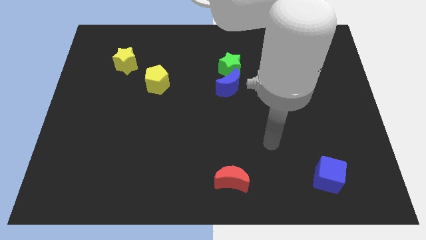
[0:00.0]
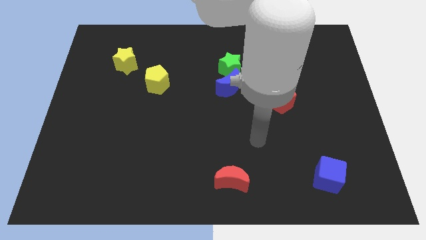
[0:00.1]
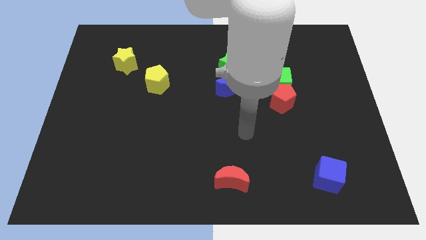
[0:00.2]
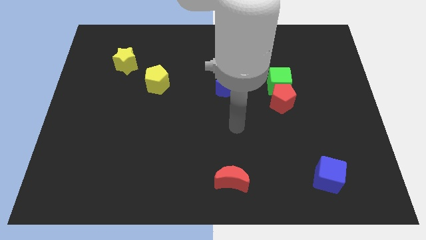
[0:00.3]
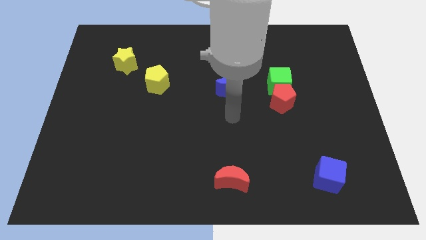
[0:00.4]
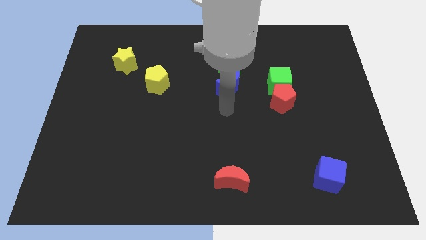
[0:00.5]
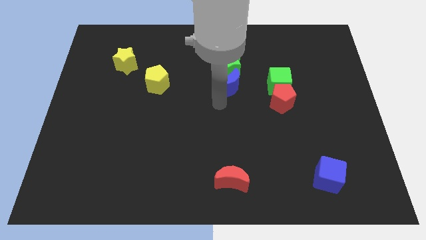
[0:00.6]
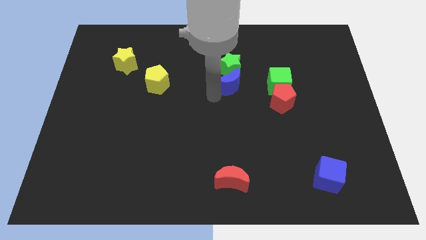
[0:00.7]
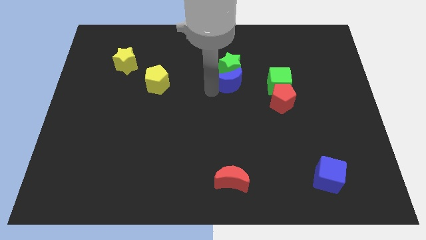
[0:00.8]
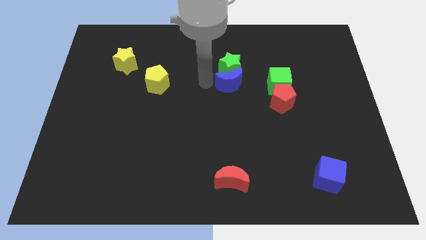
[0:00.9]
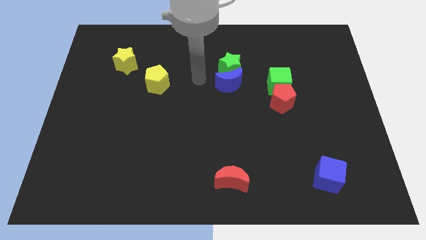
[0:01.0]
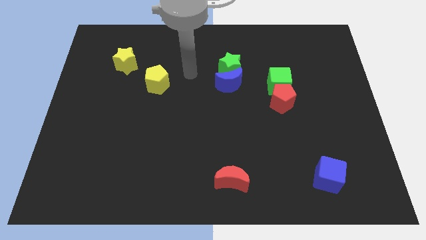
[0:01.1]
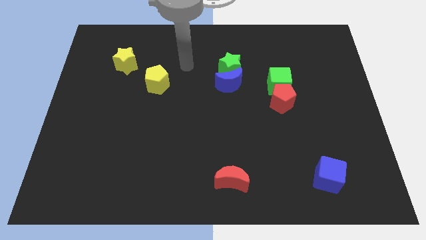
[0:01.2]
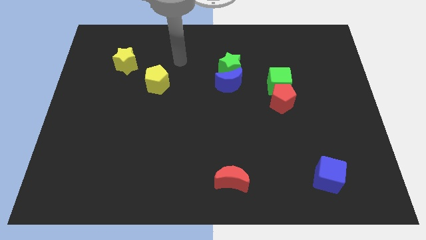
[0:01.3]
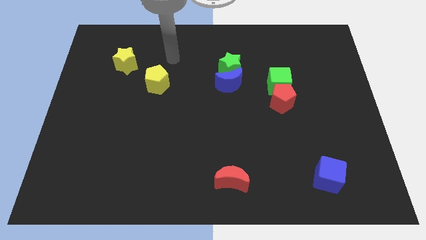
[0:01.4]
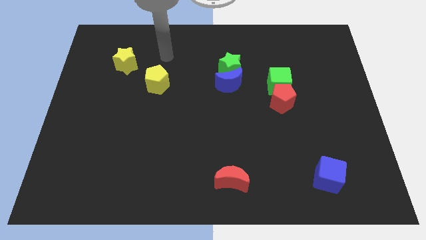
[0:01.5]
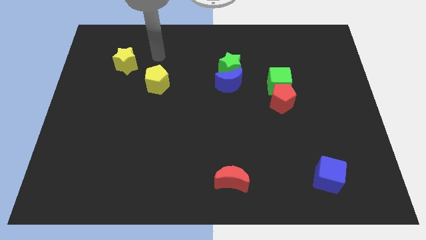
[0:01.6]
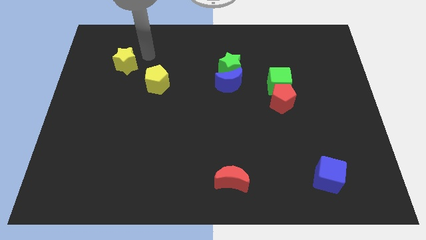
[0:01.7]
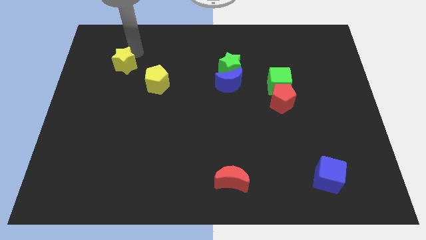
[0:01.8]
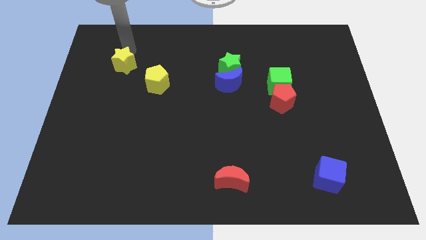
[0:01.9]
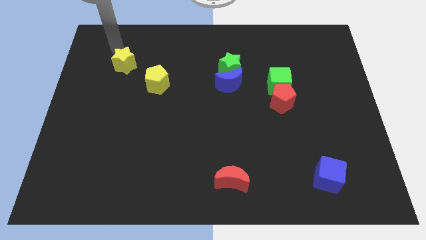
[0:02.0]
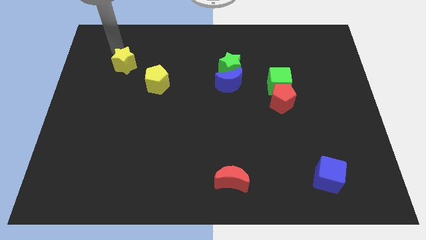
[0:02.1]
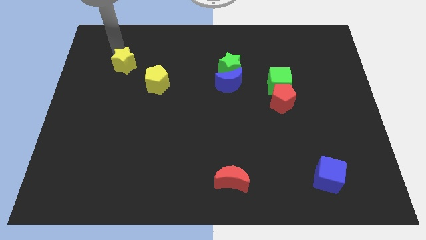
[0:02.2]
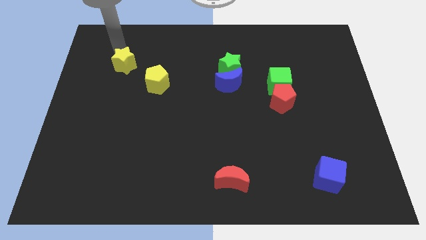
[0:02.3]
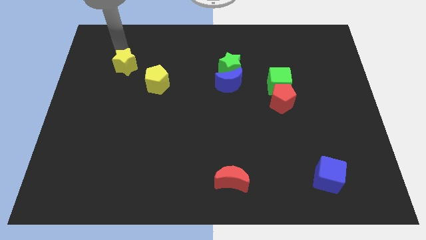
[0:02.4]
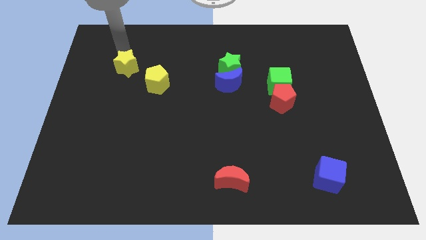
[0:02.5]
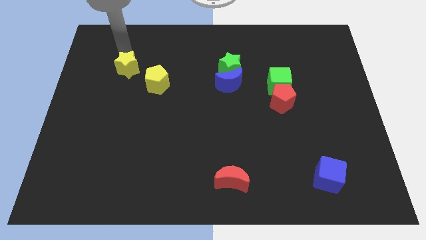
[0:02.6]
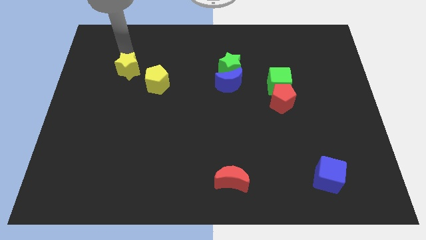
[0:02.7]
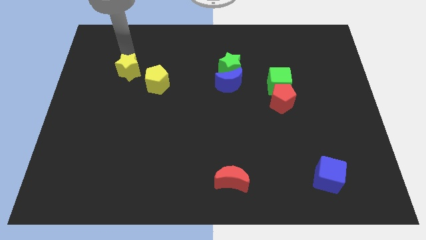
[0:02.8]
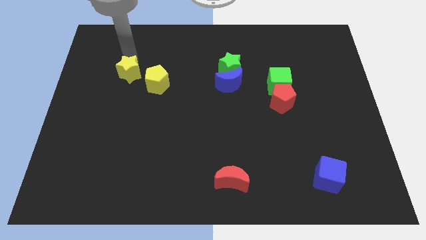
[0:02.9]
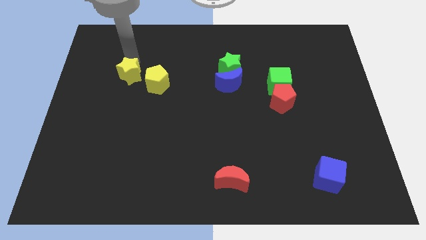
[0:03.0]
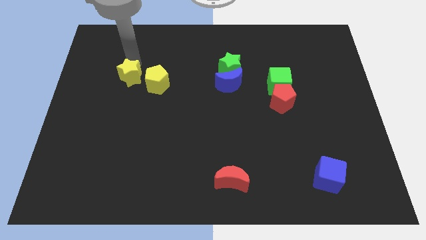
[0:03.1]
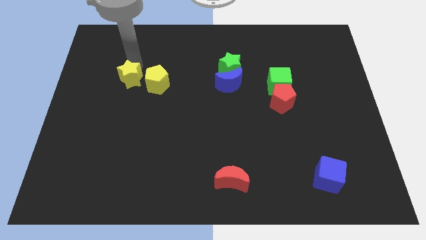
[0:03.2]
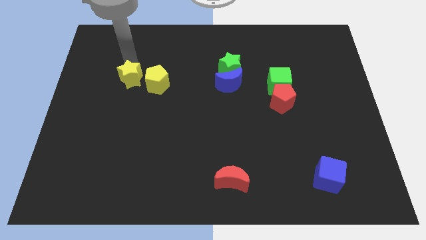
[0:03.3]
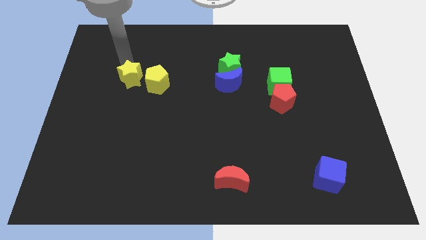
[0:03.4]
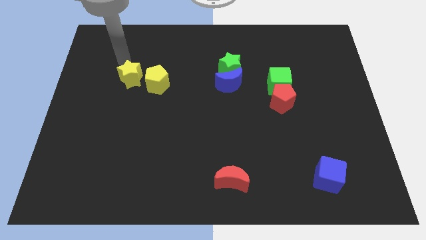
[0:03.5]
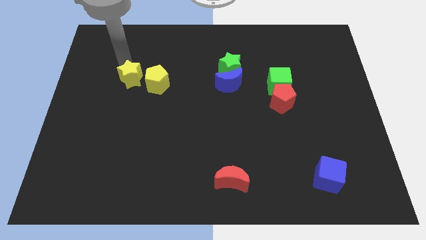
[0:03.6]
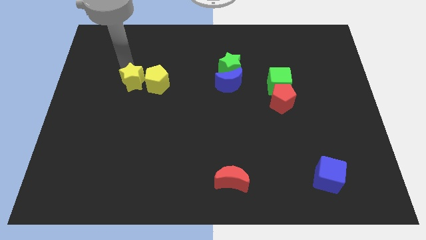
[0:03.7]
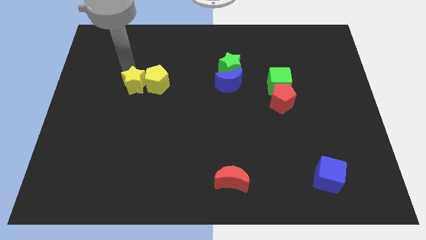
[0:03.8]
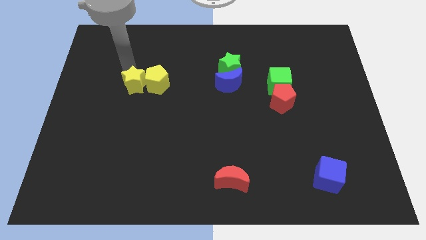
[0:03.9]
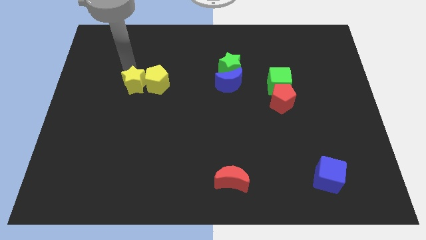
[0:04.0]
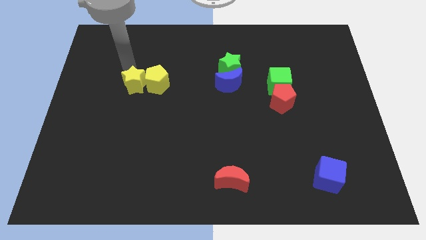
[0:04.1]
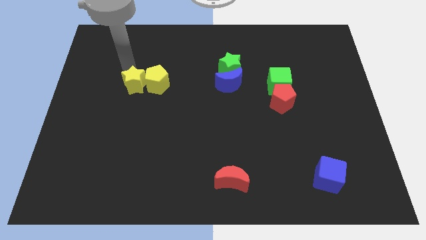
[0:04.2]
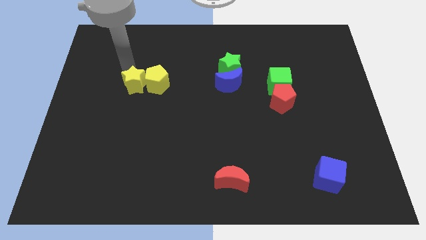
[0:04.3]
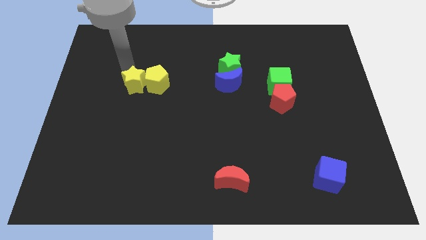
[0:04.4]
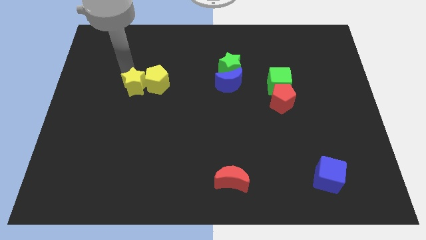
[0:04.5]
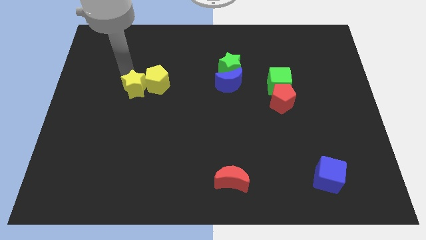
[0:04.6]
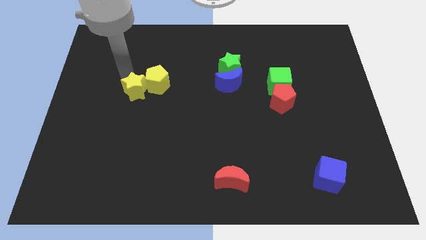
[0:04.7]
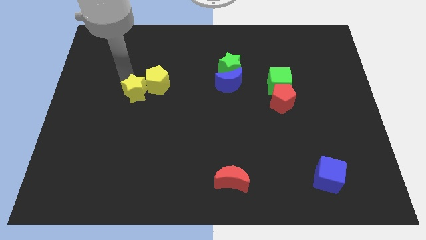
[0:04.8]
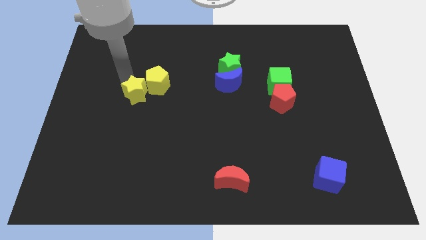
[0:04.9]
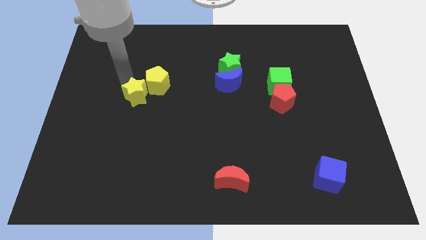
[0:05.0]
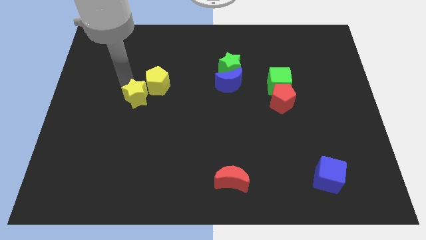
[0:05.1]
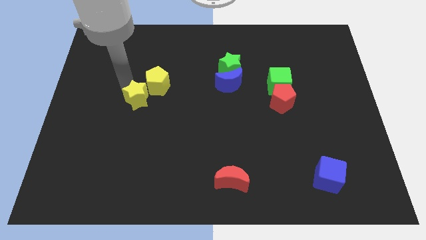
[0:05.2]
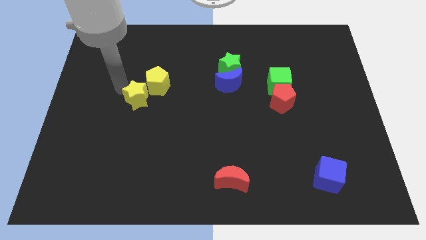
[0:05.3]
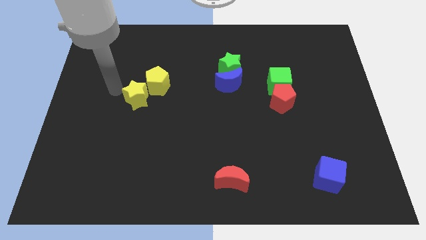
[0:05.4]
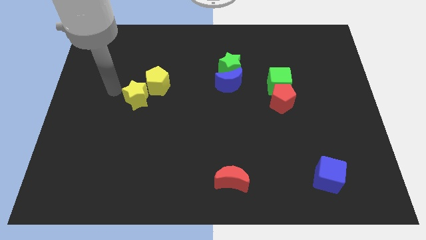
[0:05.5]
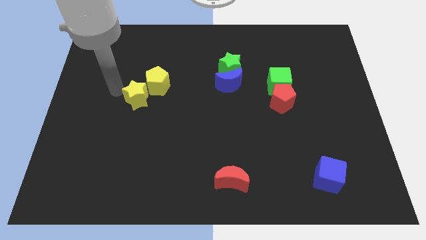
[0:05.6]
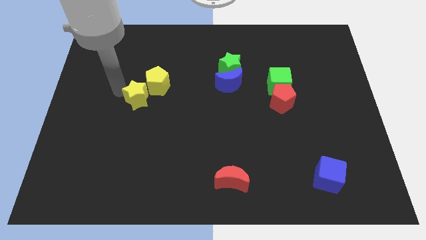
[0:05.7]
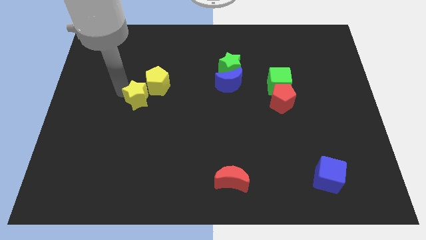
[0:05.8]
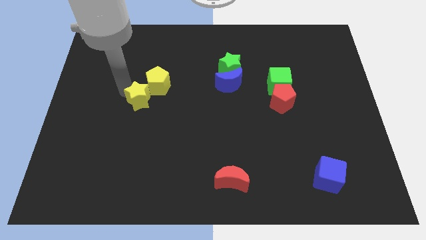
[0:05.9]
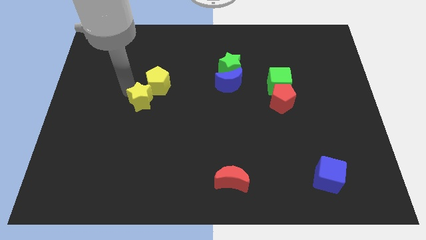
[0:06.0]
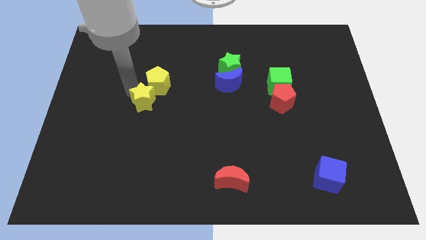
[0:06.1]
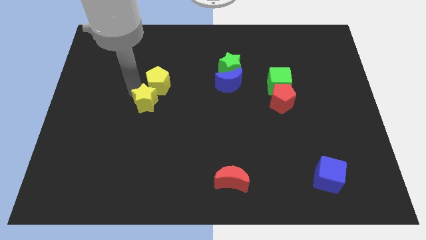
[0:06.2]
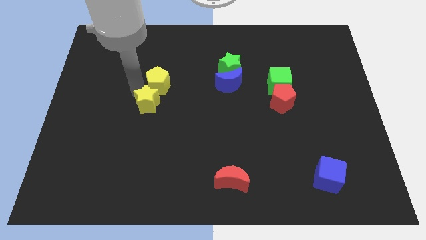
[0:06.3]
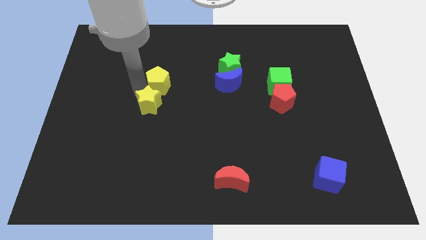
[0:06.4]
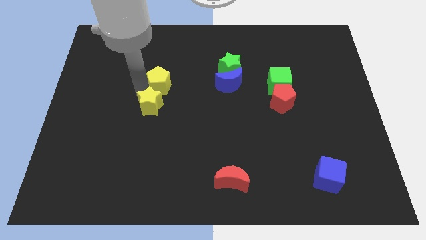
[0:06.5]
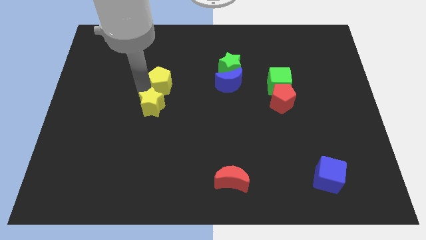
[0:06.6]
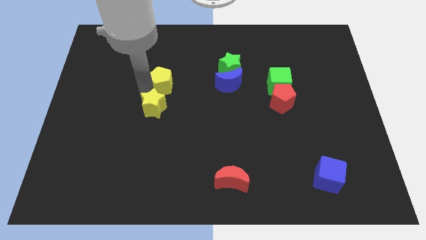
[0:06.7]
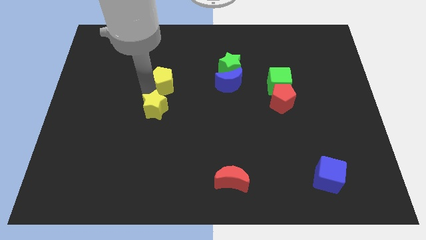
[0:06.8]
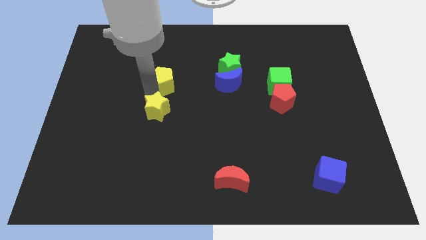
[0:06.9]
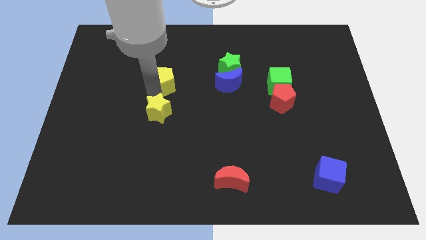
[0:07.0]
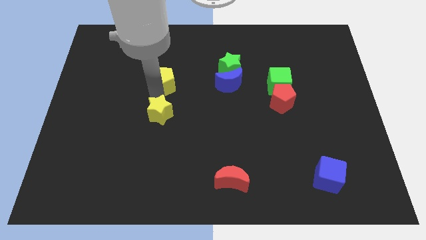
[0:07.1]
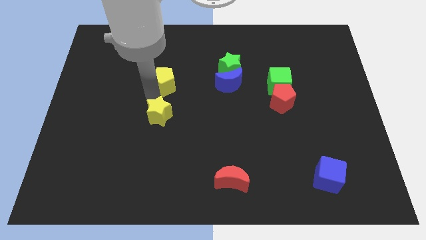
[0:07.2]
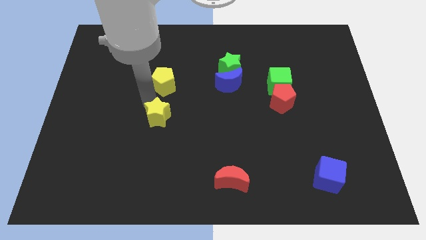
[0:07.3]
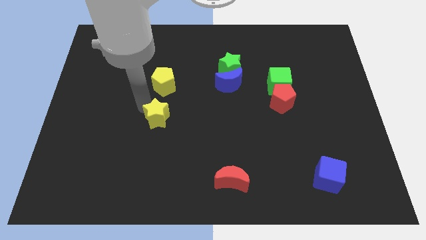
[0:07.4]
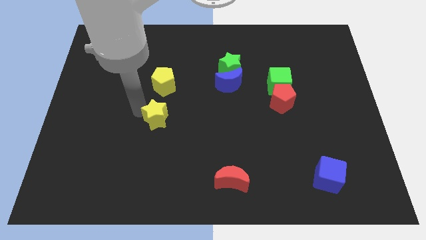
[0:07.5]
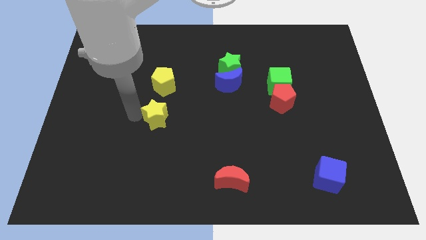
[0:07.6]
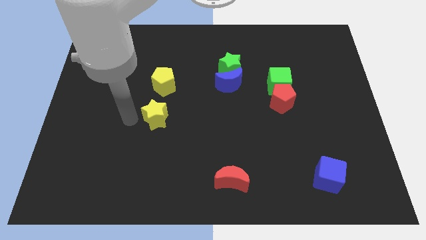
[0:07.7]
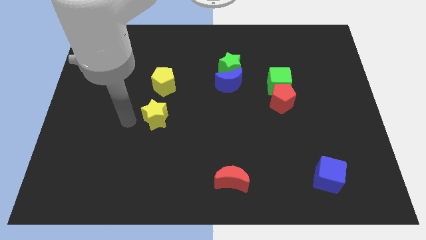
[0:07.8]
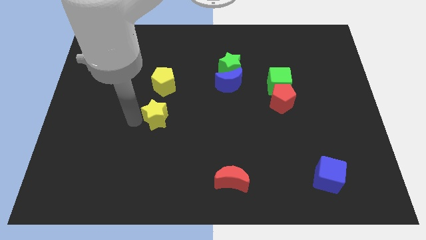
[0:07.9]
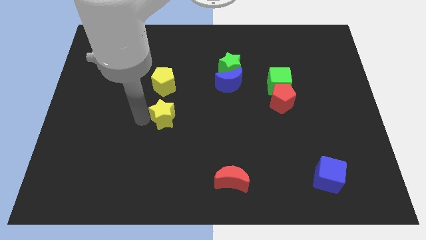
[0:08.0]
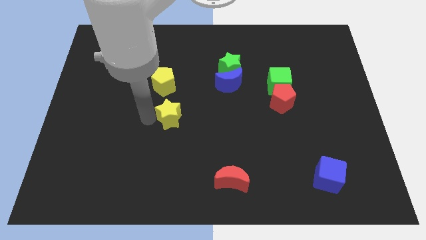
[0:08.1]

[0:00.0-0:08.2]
push the yellow star diagonally down and right
